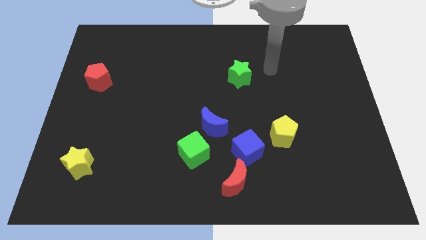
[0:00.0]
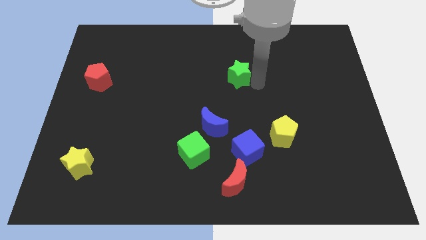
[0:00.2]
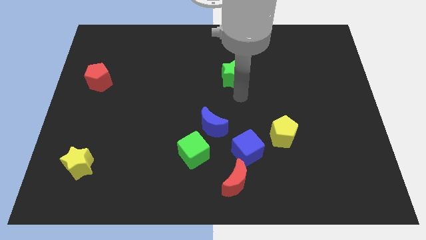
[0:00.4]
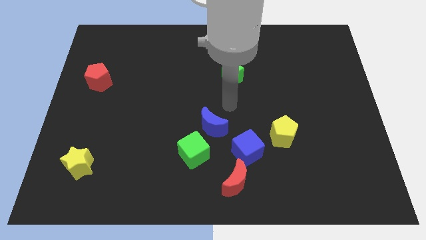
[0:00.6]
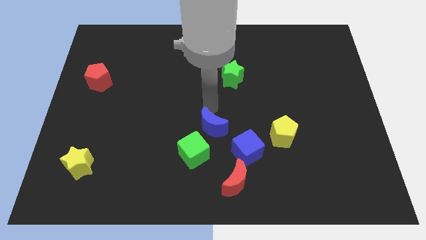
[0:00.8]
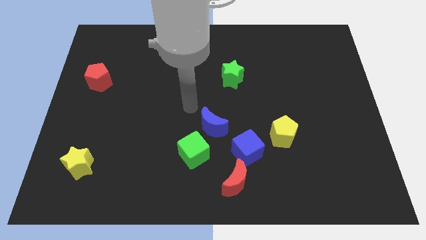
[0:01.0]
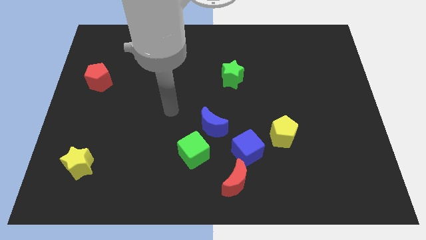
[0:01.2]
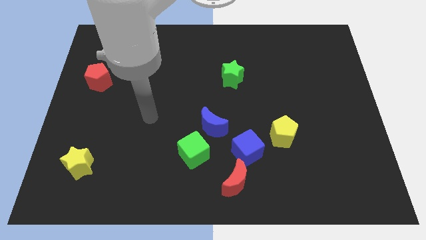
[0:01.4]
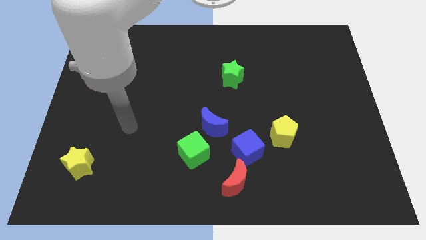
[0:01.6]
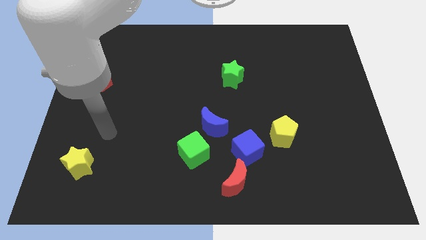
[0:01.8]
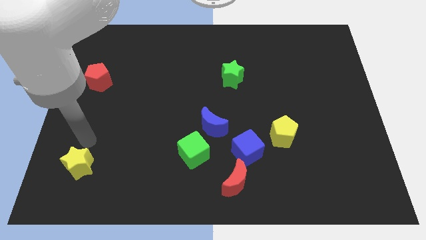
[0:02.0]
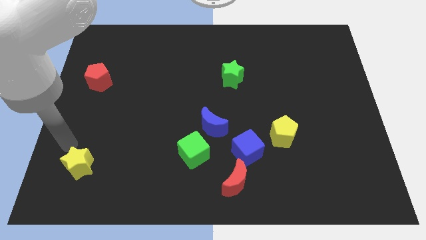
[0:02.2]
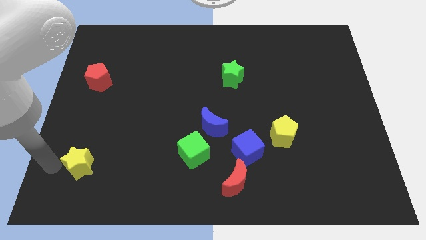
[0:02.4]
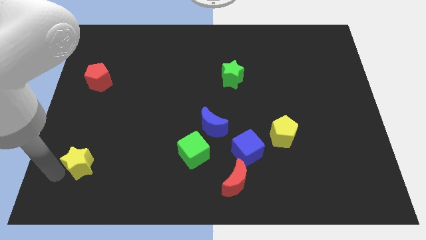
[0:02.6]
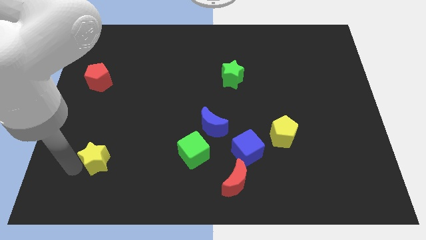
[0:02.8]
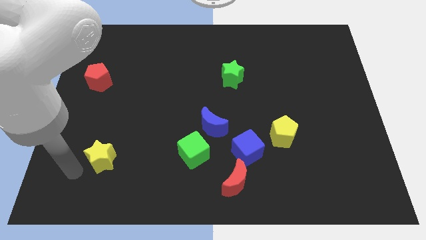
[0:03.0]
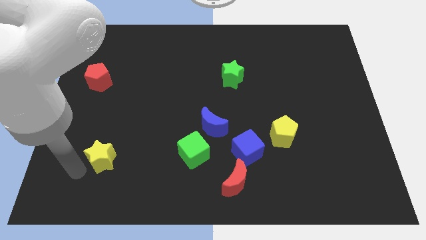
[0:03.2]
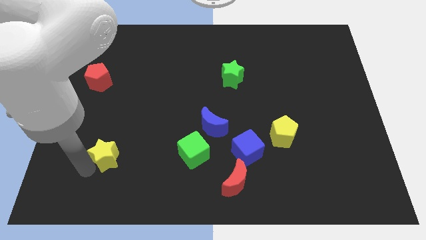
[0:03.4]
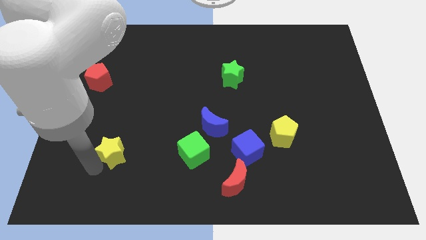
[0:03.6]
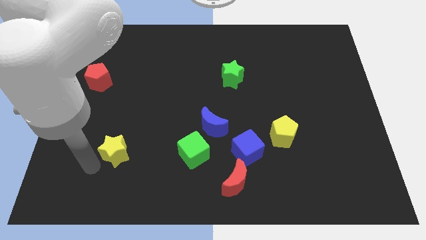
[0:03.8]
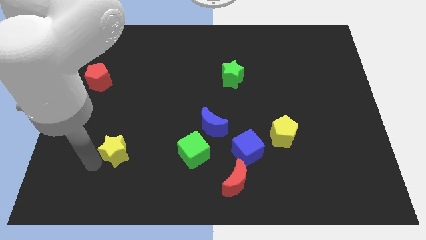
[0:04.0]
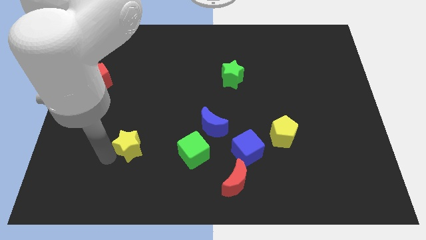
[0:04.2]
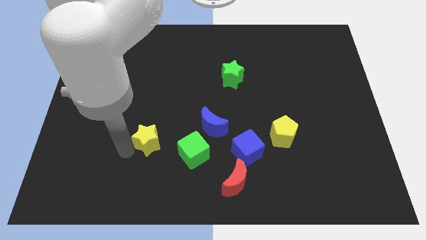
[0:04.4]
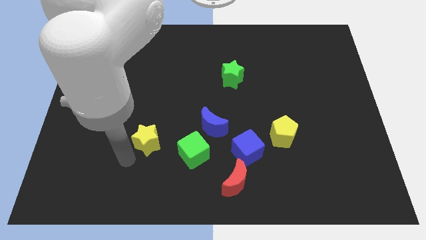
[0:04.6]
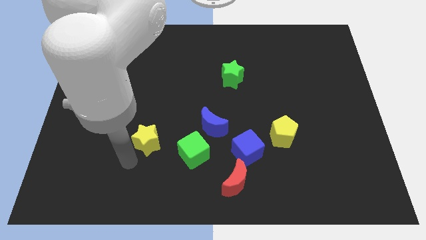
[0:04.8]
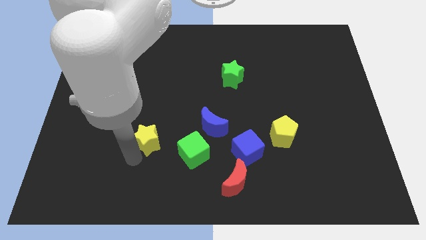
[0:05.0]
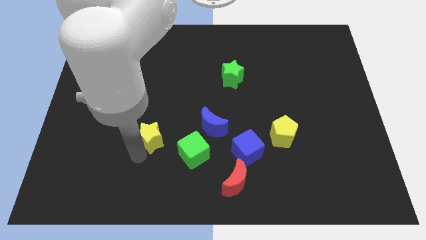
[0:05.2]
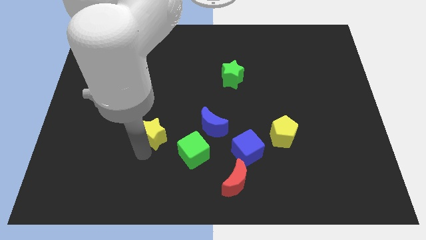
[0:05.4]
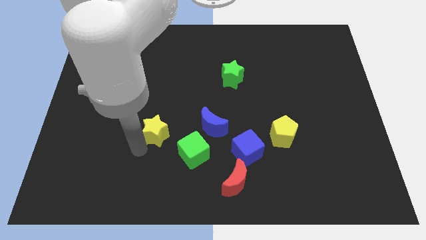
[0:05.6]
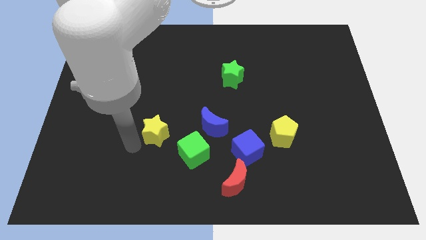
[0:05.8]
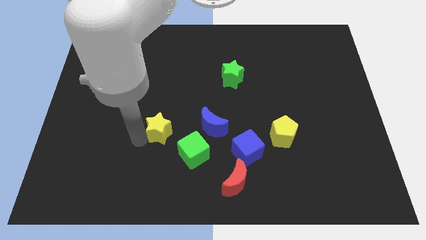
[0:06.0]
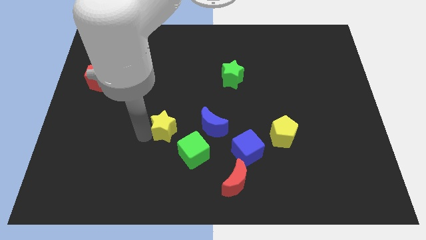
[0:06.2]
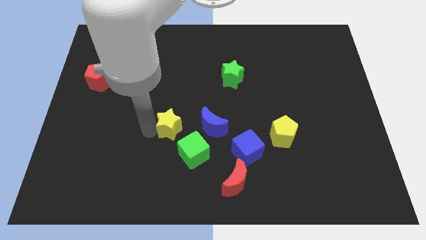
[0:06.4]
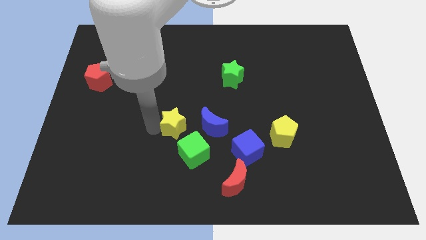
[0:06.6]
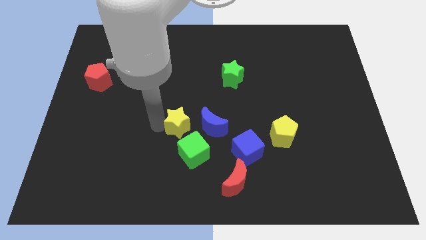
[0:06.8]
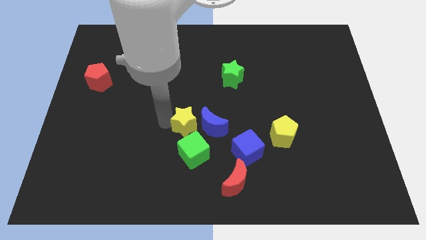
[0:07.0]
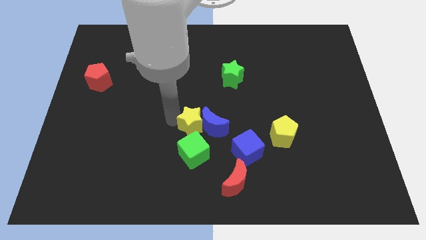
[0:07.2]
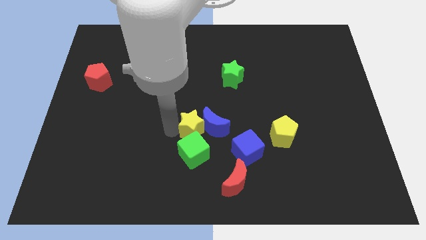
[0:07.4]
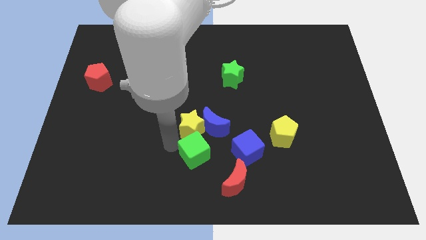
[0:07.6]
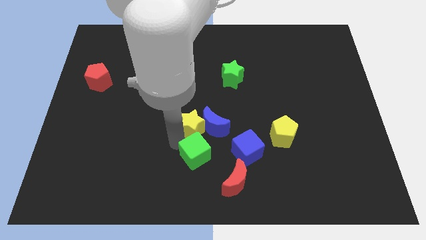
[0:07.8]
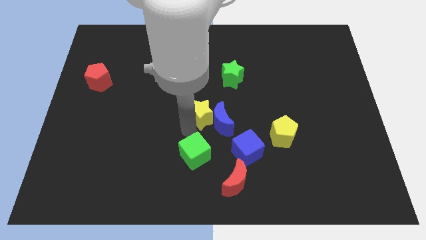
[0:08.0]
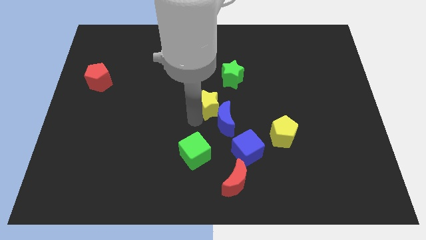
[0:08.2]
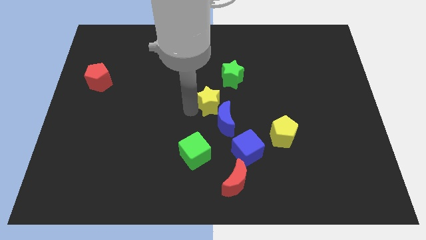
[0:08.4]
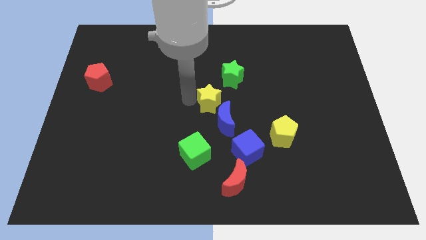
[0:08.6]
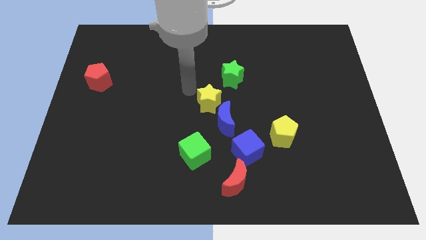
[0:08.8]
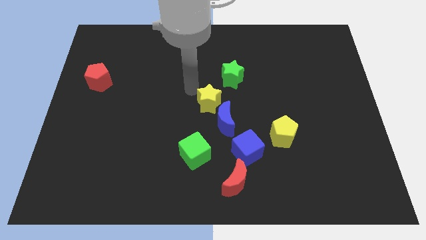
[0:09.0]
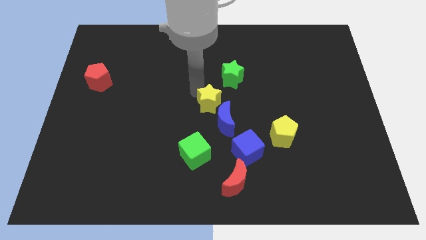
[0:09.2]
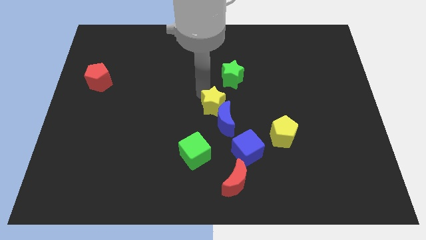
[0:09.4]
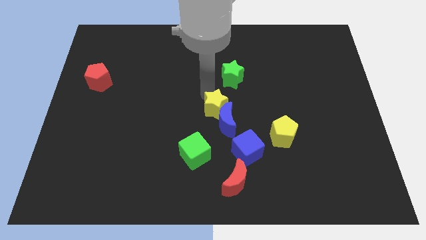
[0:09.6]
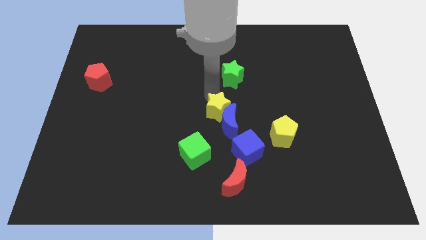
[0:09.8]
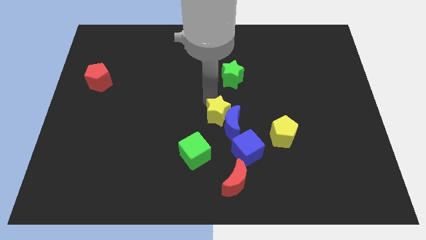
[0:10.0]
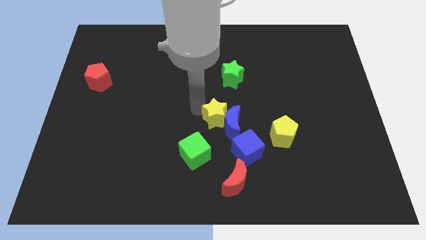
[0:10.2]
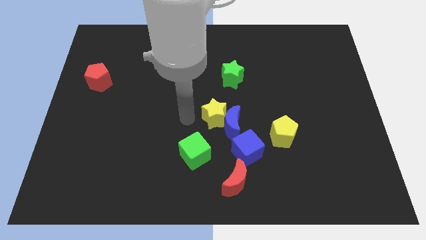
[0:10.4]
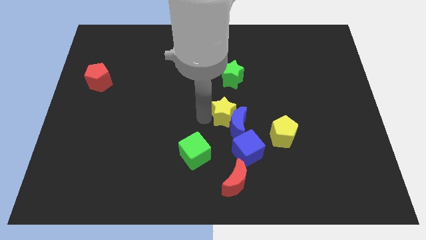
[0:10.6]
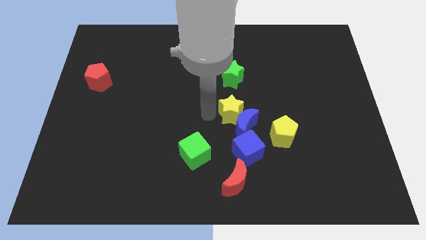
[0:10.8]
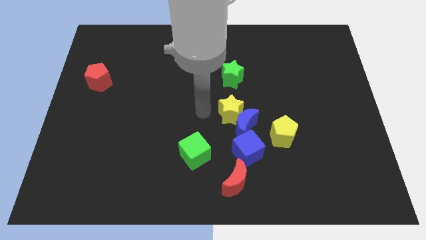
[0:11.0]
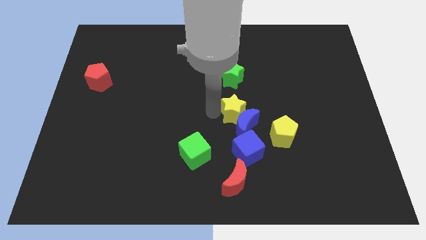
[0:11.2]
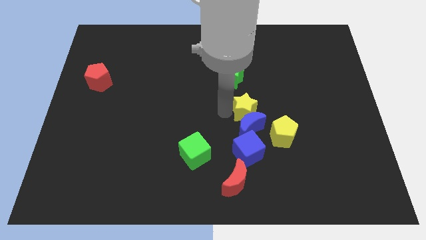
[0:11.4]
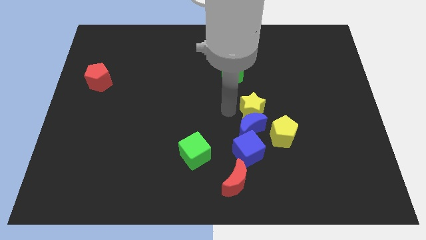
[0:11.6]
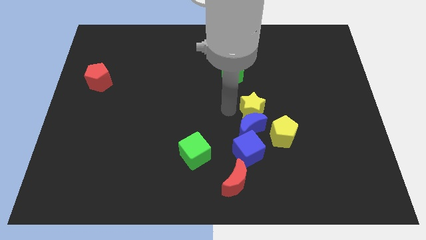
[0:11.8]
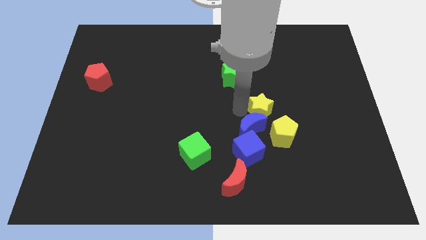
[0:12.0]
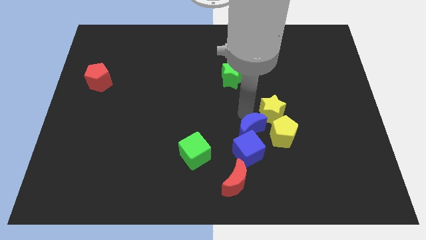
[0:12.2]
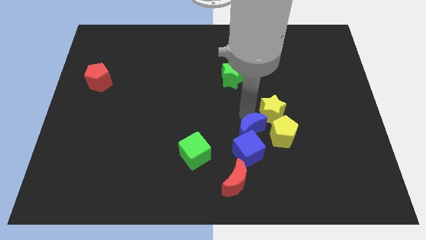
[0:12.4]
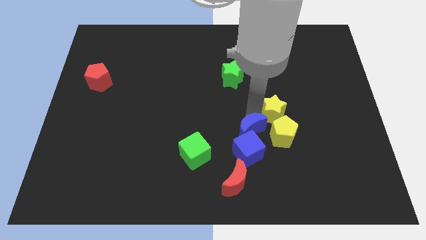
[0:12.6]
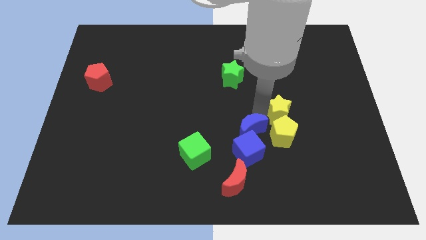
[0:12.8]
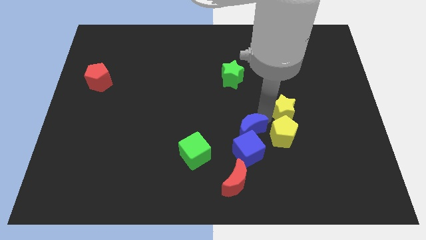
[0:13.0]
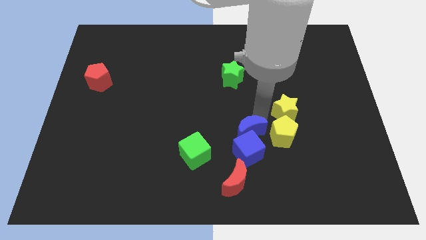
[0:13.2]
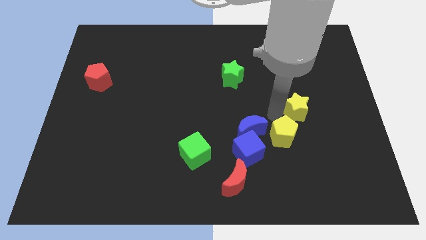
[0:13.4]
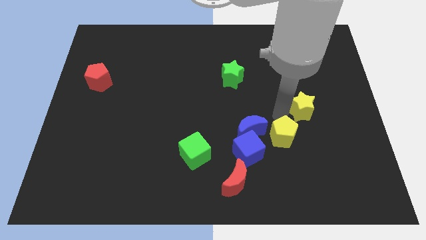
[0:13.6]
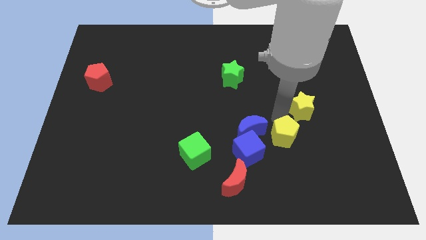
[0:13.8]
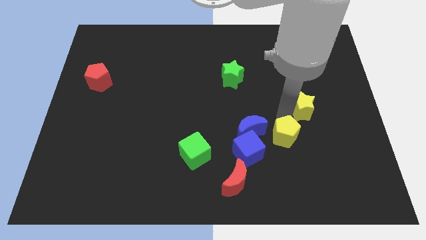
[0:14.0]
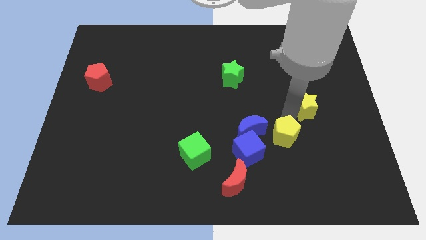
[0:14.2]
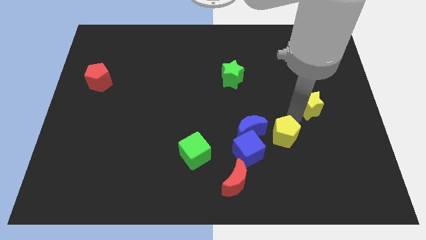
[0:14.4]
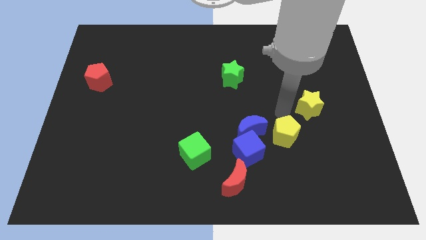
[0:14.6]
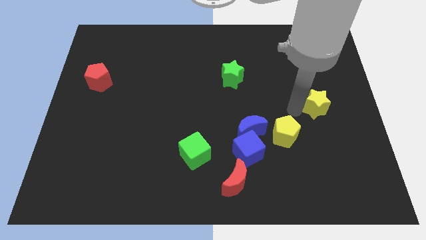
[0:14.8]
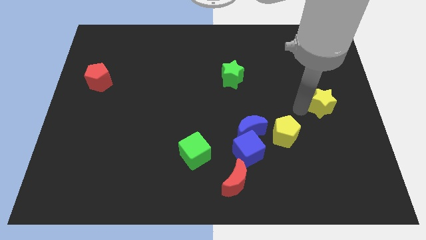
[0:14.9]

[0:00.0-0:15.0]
slide the yellow star to the right side
